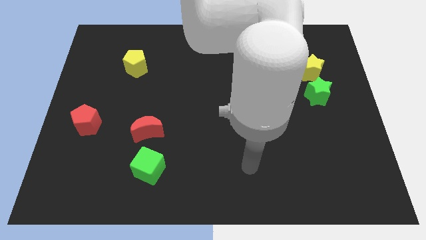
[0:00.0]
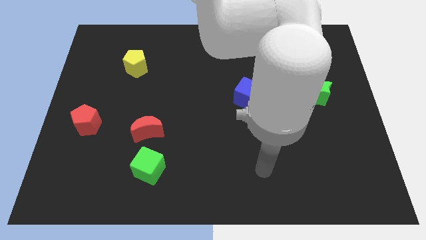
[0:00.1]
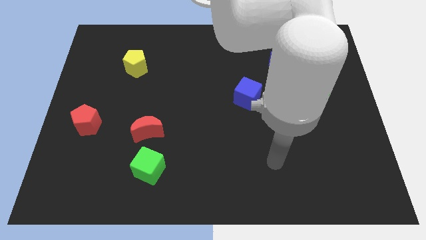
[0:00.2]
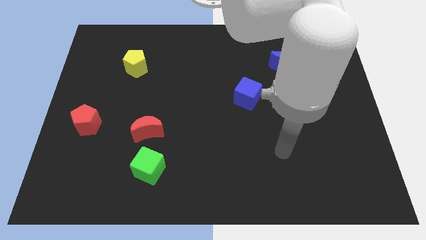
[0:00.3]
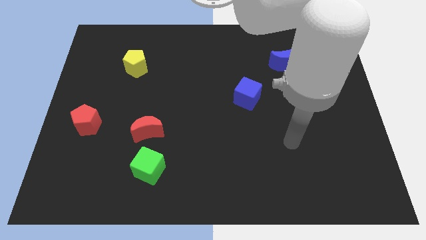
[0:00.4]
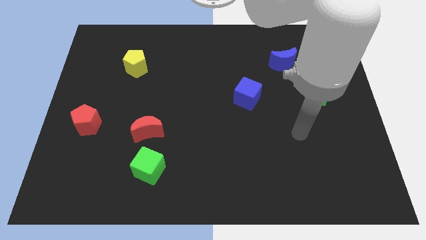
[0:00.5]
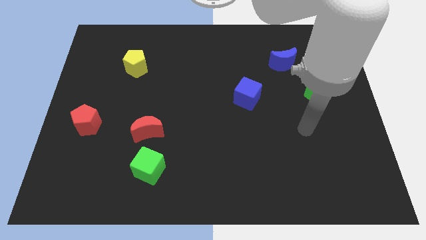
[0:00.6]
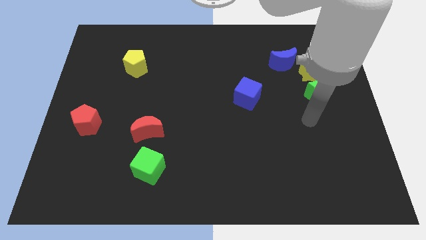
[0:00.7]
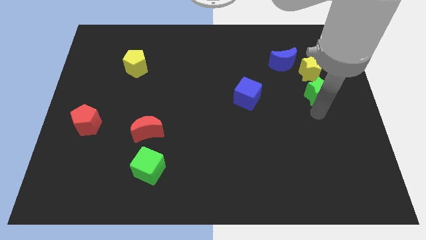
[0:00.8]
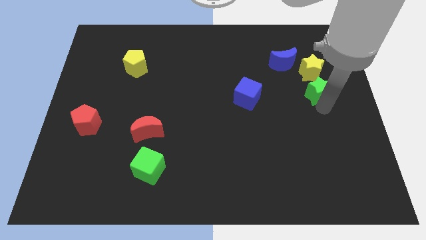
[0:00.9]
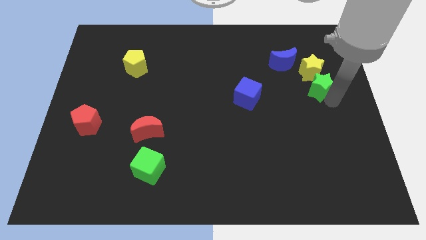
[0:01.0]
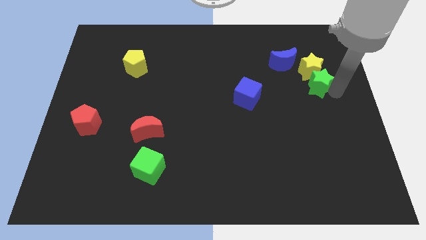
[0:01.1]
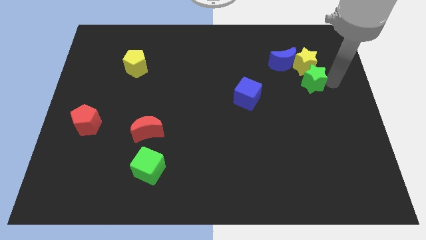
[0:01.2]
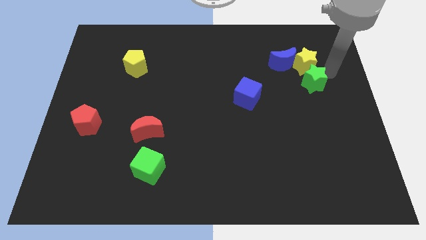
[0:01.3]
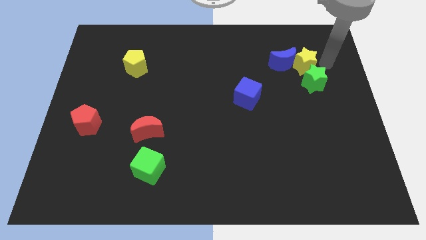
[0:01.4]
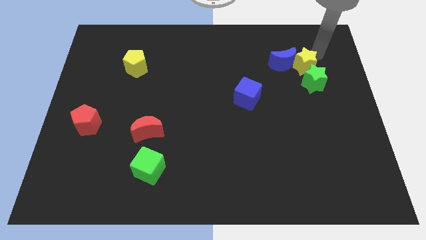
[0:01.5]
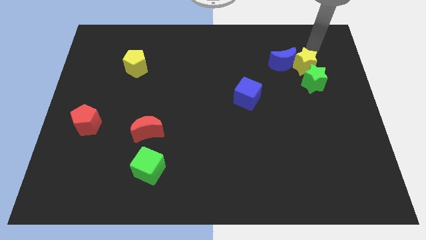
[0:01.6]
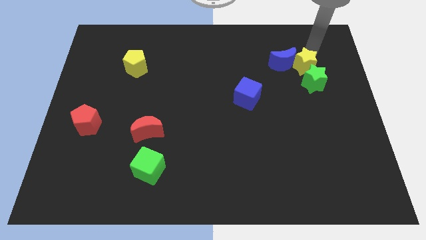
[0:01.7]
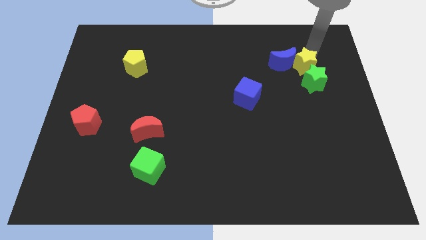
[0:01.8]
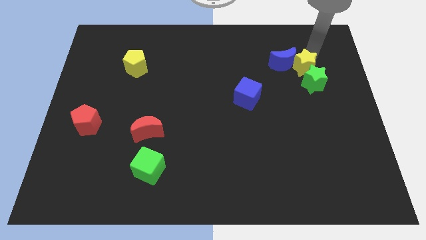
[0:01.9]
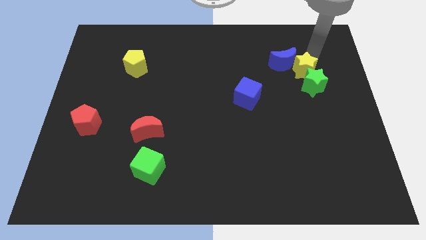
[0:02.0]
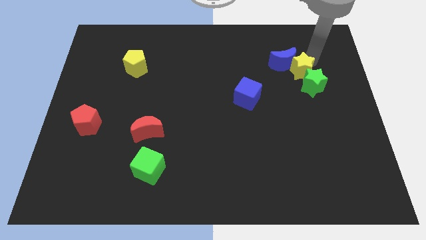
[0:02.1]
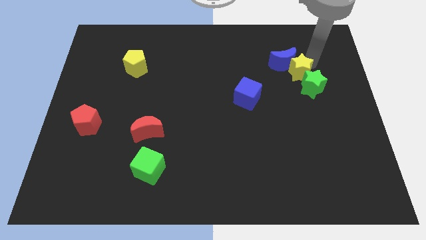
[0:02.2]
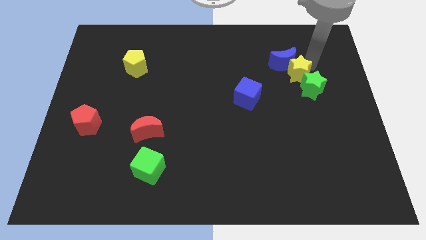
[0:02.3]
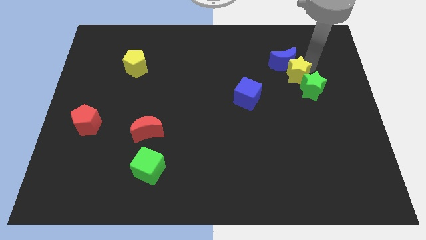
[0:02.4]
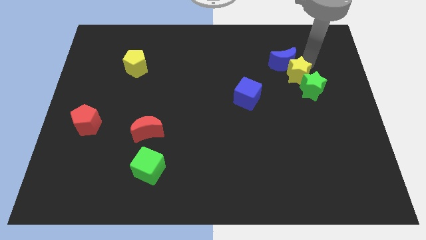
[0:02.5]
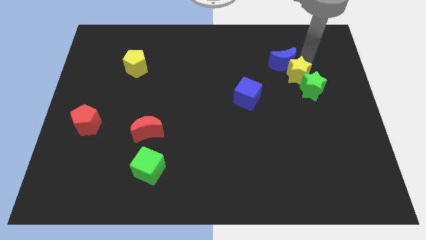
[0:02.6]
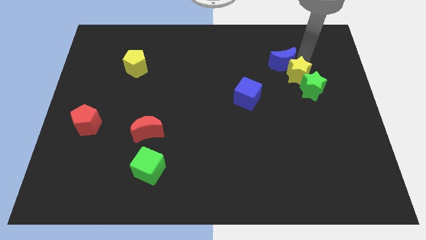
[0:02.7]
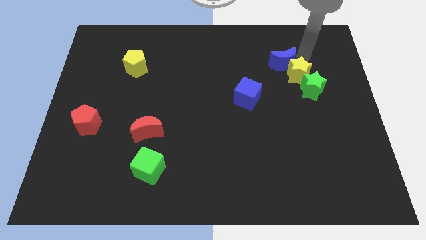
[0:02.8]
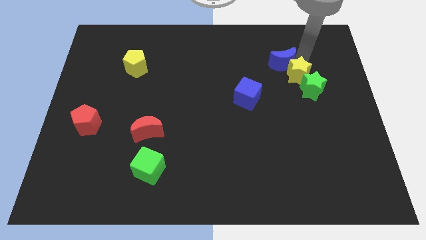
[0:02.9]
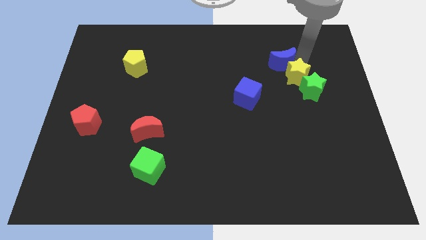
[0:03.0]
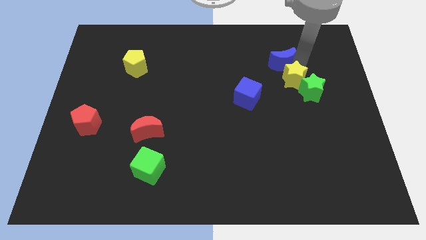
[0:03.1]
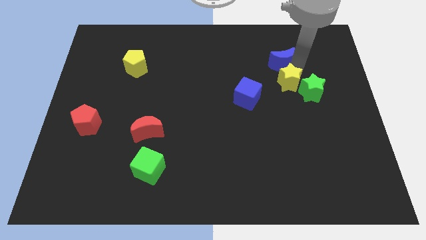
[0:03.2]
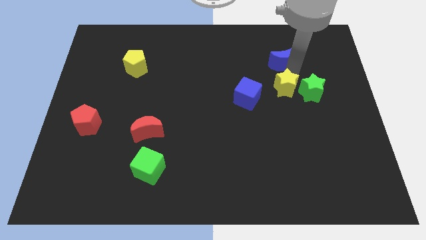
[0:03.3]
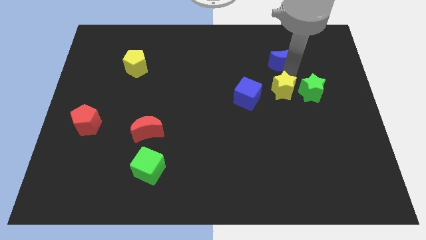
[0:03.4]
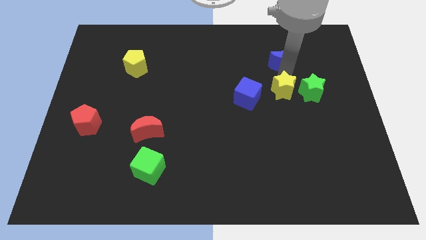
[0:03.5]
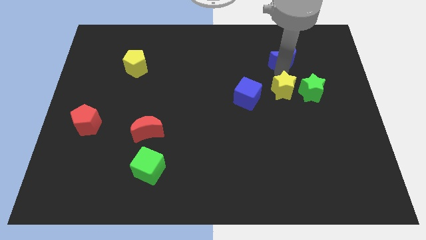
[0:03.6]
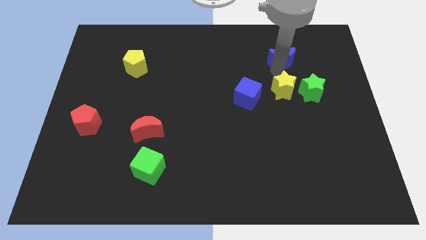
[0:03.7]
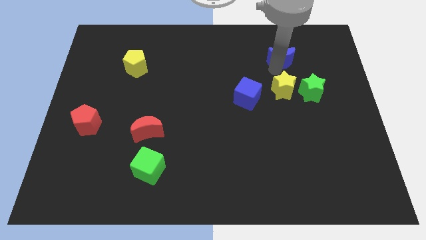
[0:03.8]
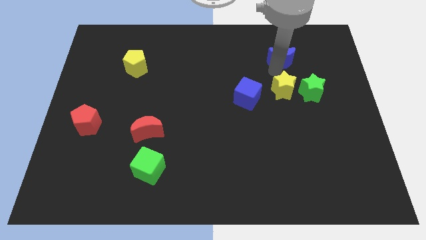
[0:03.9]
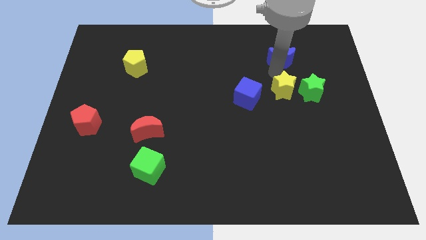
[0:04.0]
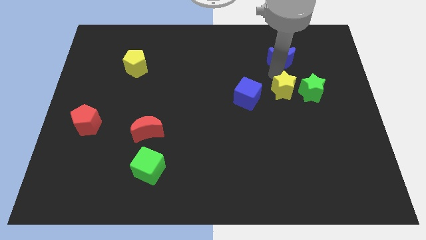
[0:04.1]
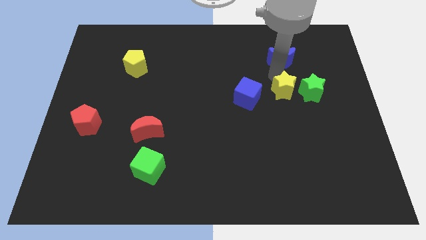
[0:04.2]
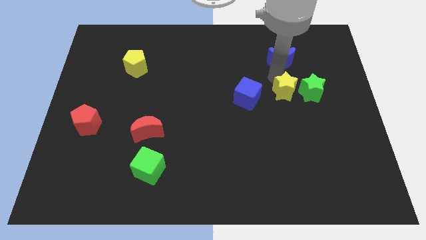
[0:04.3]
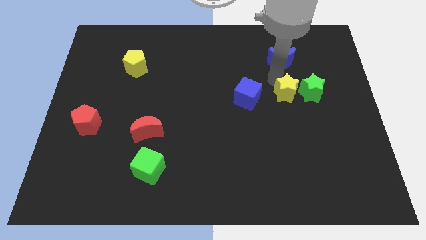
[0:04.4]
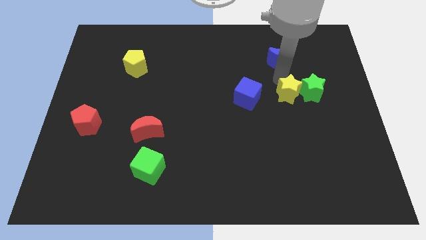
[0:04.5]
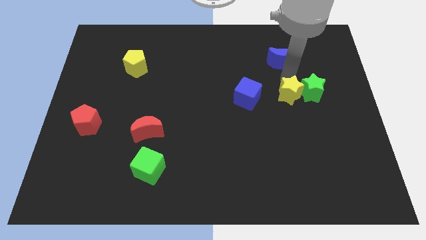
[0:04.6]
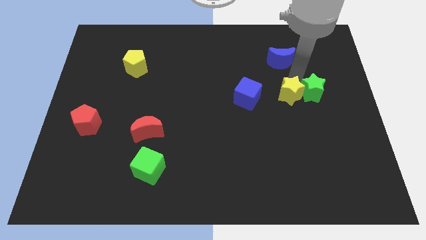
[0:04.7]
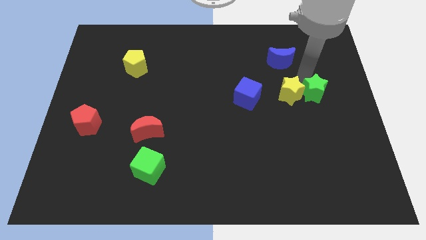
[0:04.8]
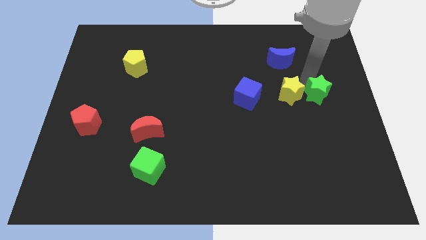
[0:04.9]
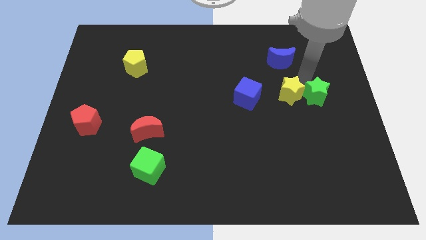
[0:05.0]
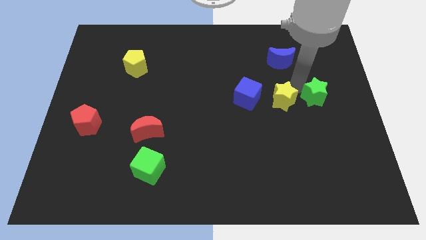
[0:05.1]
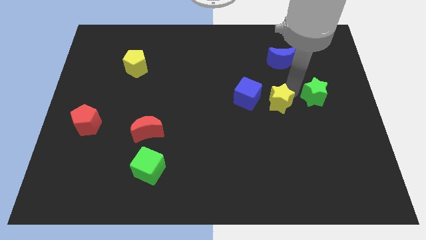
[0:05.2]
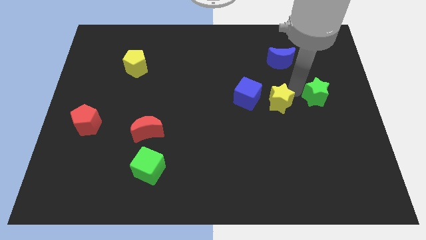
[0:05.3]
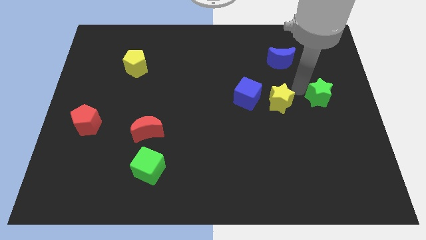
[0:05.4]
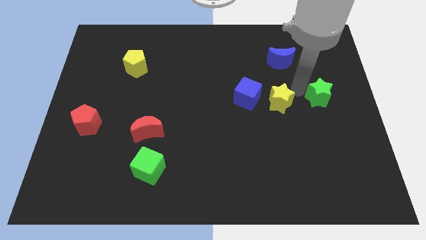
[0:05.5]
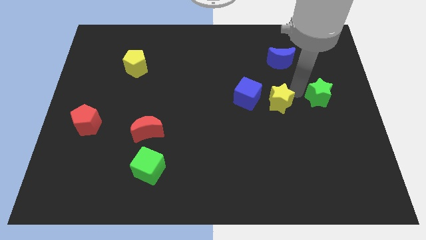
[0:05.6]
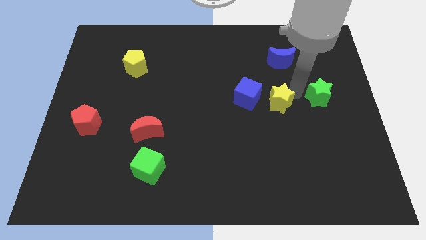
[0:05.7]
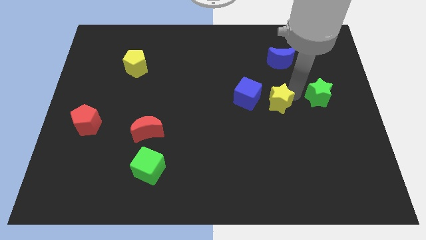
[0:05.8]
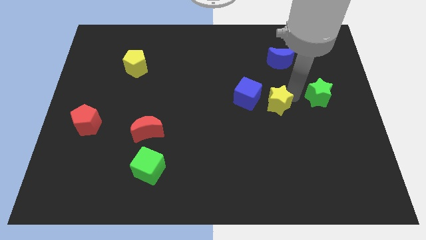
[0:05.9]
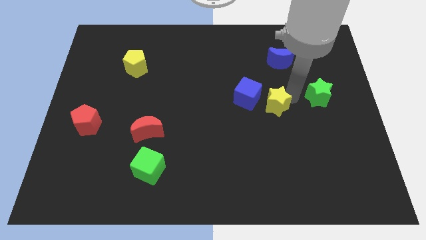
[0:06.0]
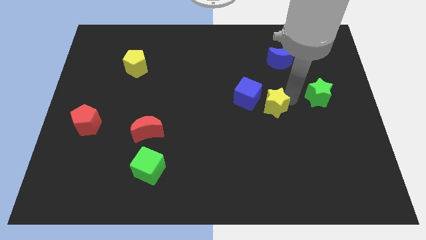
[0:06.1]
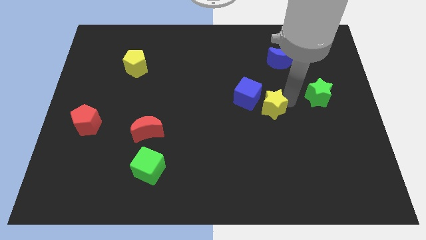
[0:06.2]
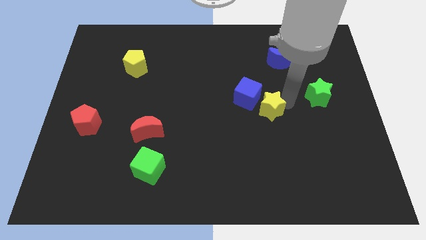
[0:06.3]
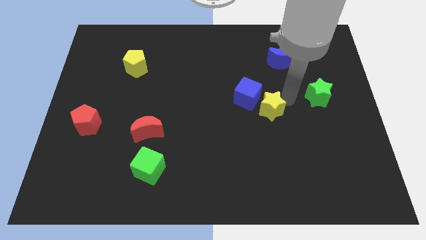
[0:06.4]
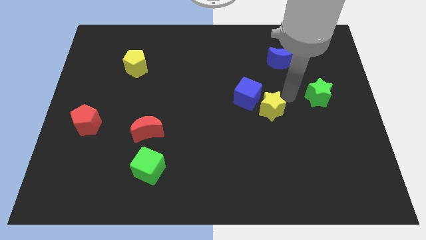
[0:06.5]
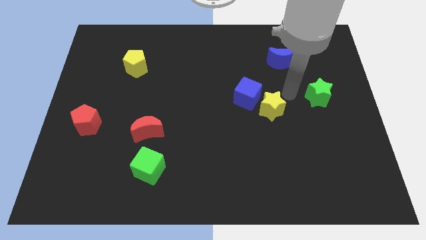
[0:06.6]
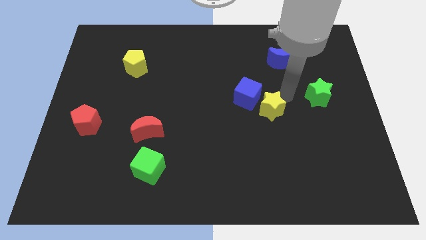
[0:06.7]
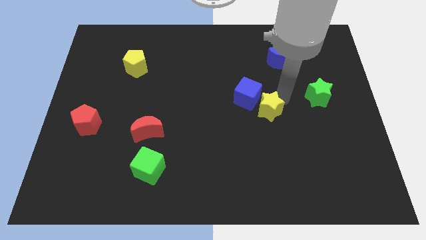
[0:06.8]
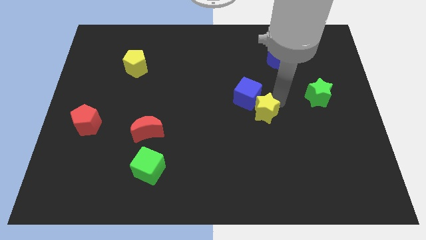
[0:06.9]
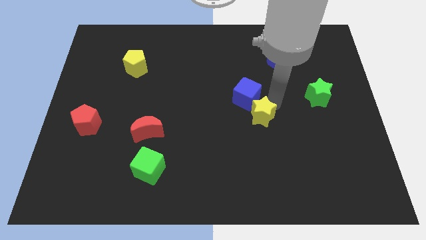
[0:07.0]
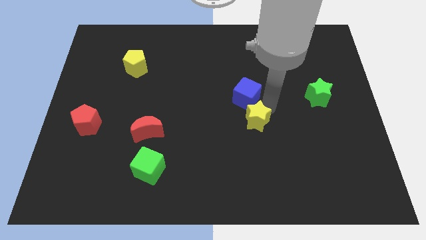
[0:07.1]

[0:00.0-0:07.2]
slide the yellow star diagonally downwards and left
